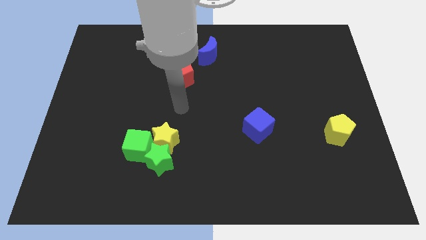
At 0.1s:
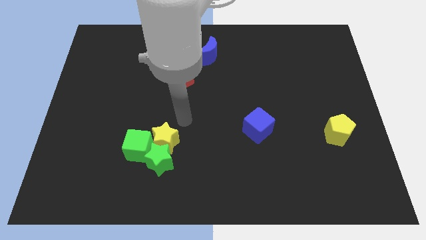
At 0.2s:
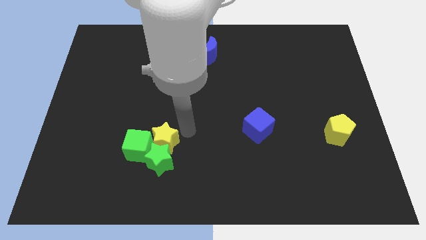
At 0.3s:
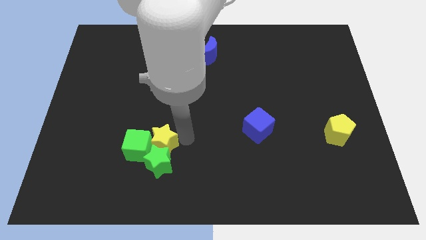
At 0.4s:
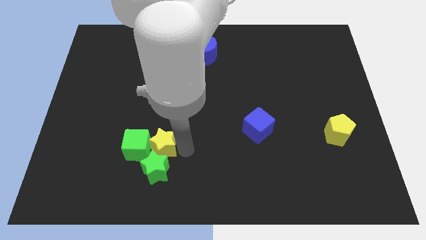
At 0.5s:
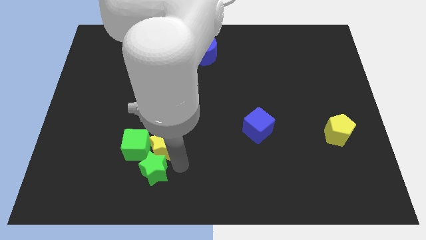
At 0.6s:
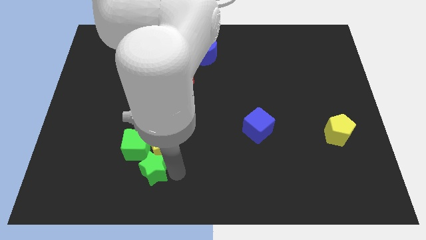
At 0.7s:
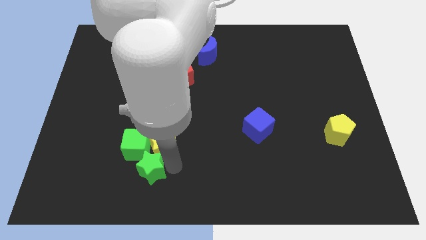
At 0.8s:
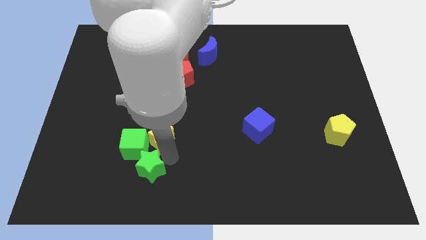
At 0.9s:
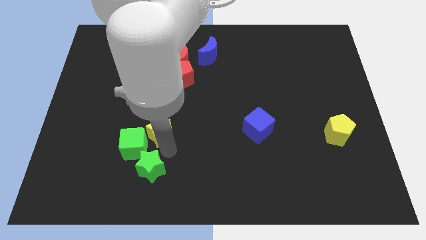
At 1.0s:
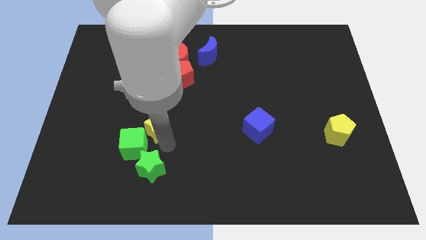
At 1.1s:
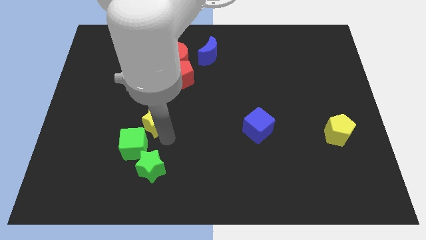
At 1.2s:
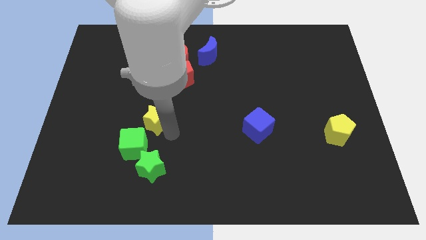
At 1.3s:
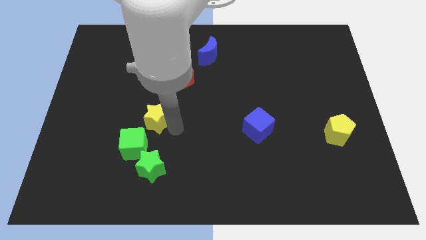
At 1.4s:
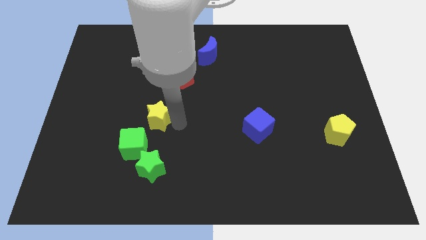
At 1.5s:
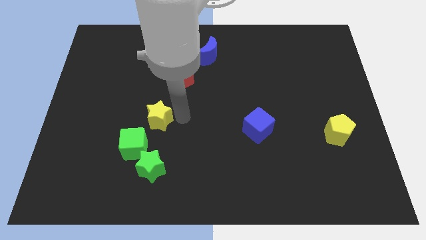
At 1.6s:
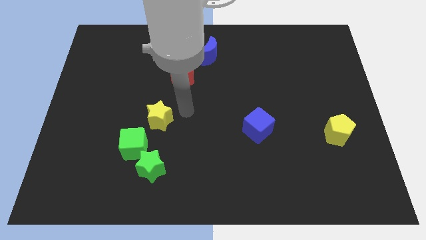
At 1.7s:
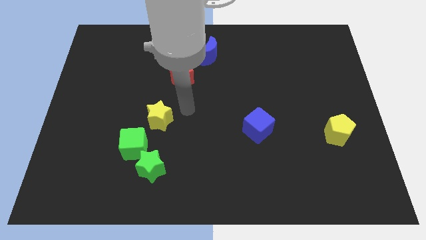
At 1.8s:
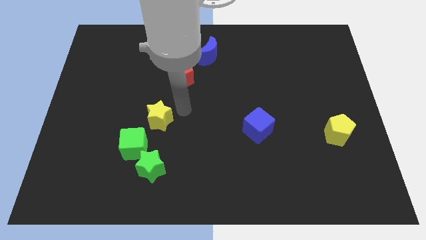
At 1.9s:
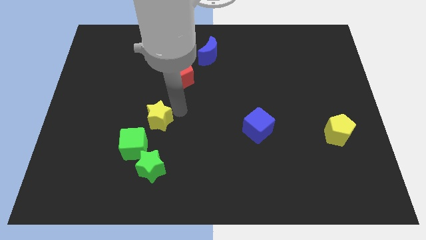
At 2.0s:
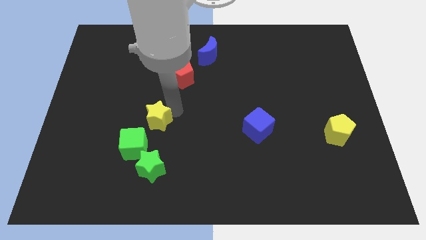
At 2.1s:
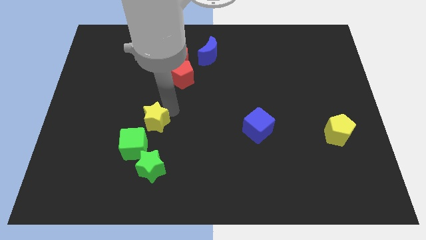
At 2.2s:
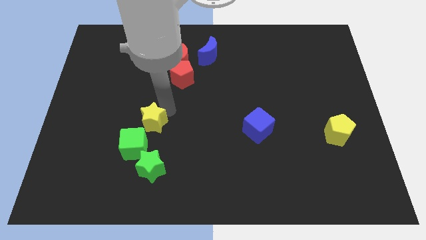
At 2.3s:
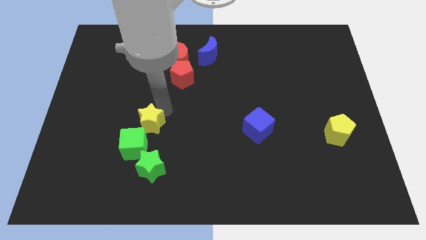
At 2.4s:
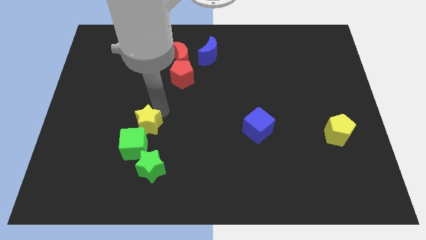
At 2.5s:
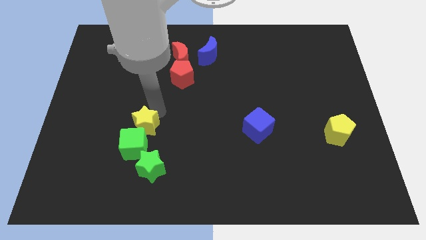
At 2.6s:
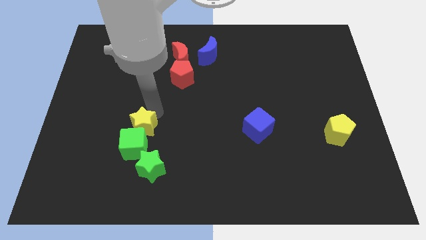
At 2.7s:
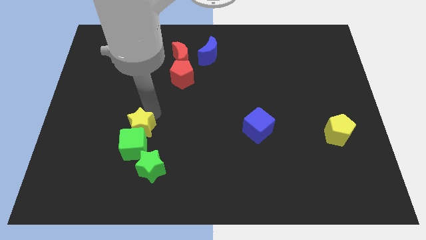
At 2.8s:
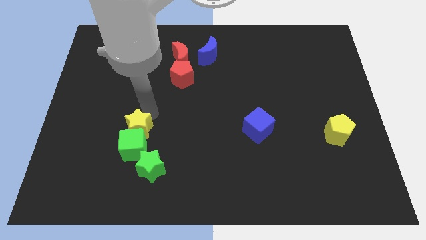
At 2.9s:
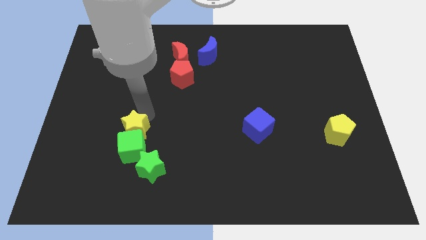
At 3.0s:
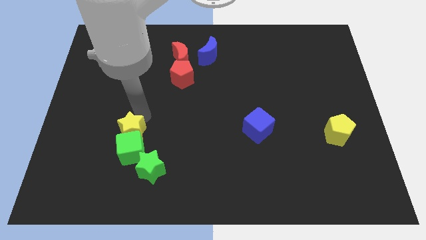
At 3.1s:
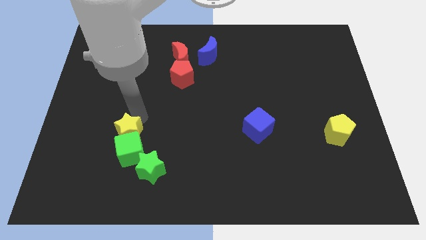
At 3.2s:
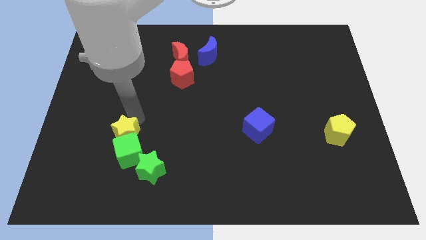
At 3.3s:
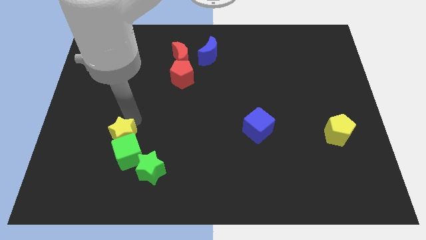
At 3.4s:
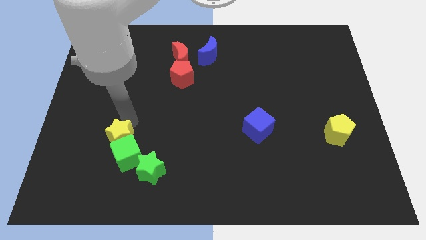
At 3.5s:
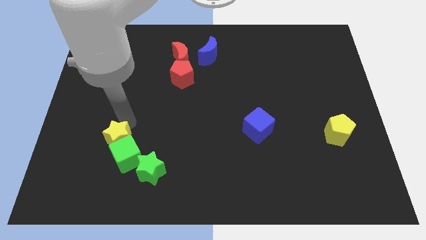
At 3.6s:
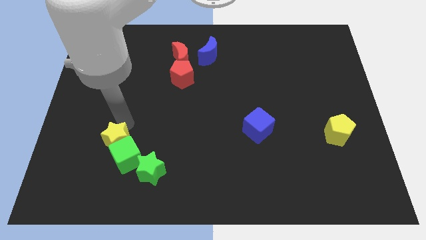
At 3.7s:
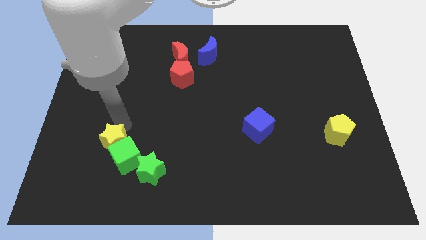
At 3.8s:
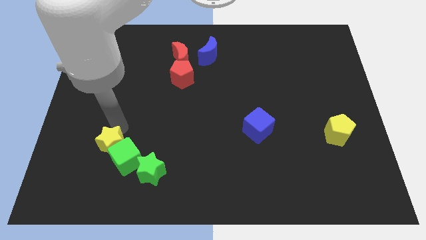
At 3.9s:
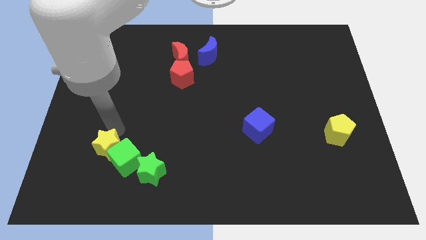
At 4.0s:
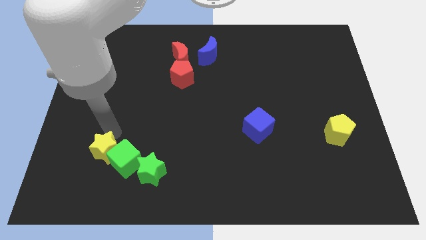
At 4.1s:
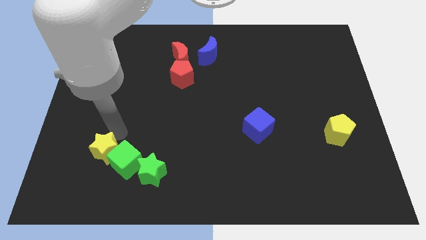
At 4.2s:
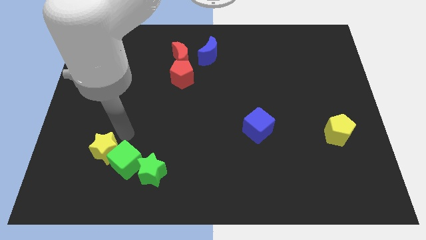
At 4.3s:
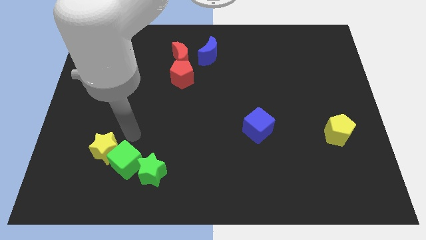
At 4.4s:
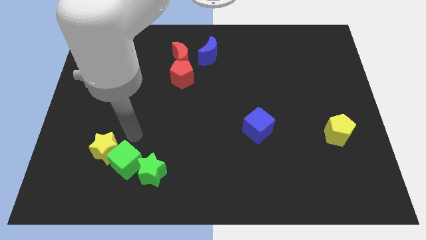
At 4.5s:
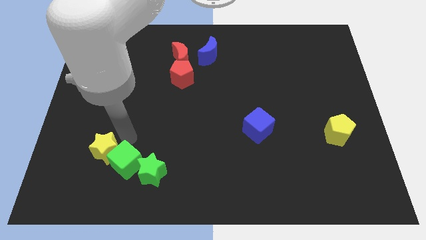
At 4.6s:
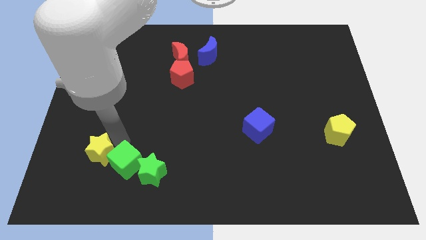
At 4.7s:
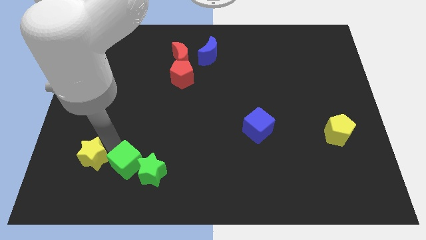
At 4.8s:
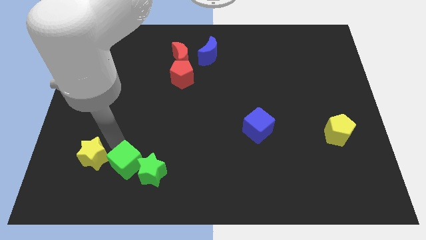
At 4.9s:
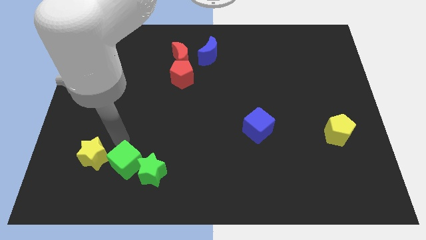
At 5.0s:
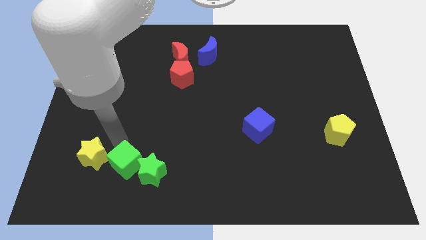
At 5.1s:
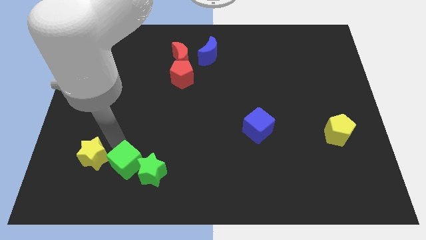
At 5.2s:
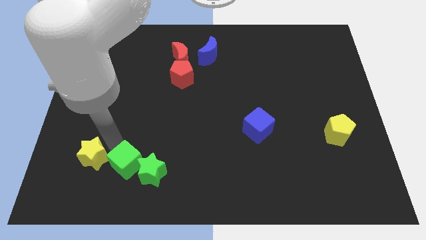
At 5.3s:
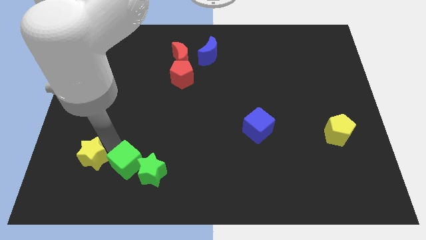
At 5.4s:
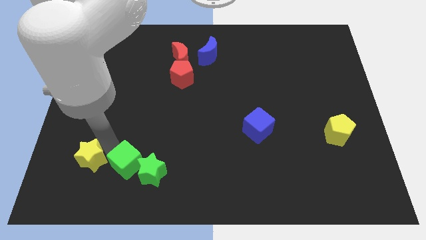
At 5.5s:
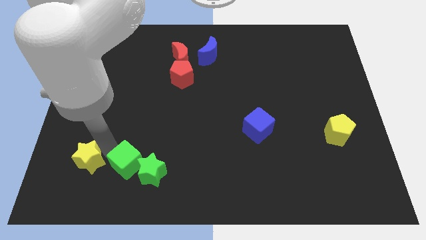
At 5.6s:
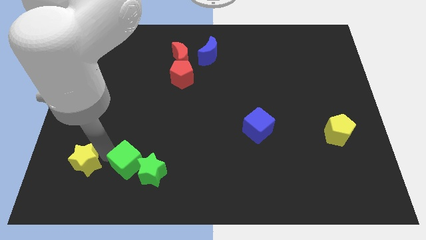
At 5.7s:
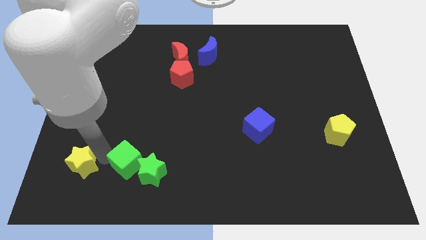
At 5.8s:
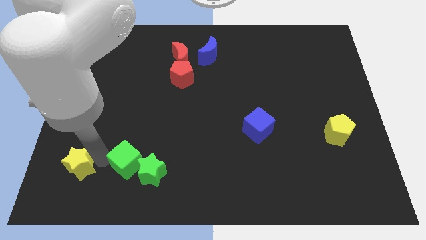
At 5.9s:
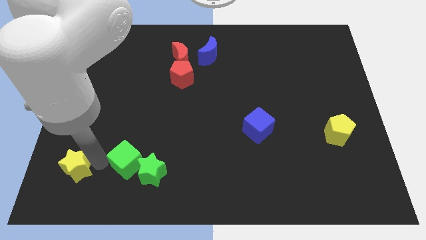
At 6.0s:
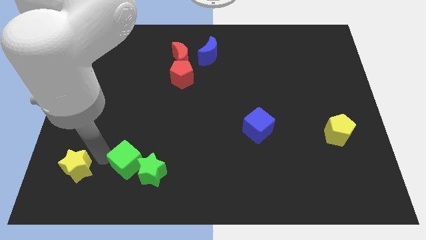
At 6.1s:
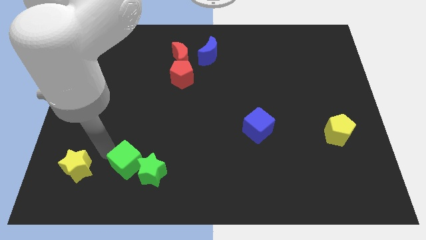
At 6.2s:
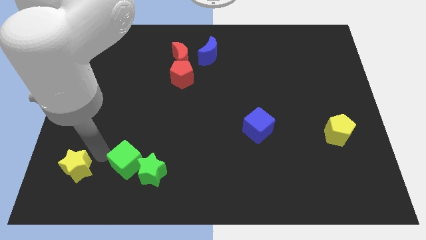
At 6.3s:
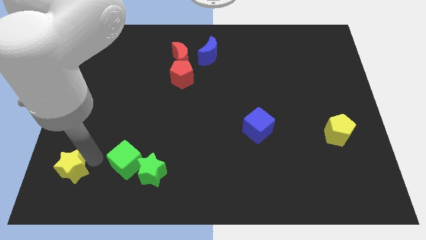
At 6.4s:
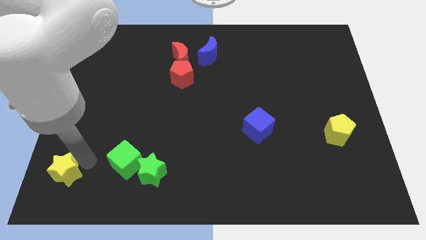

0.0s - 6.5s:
move the yellow star to the lower left corner
